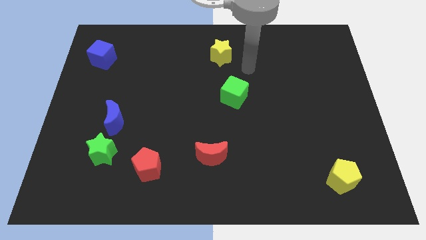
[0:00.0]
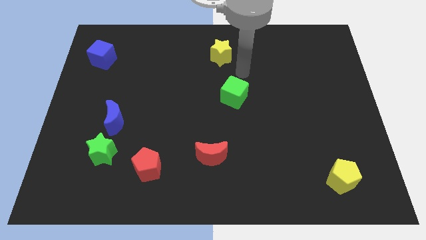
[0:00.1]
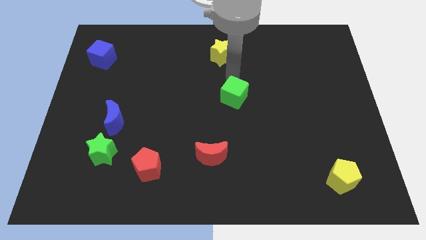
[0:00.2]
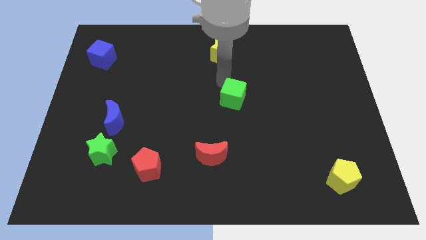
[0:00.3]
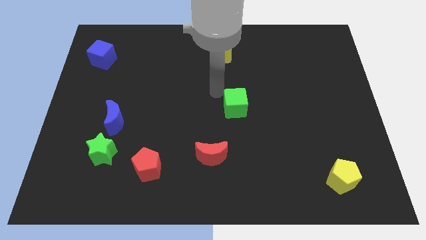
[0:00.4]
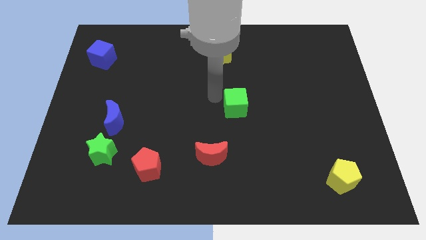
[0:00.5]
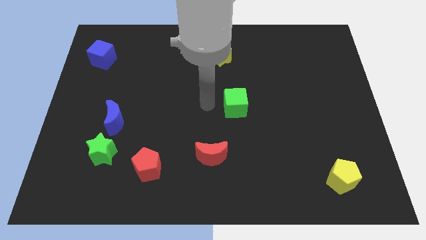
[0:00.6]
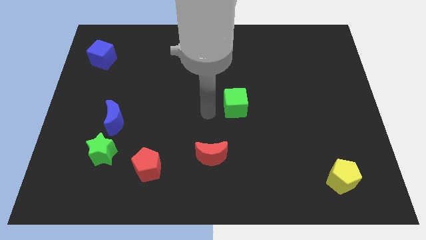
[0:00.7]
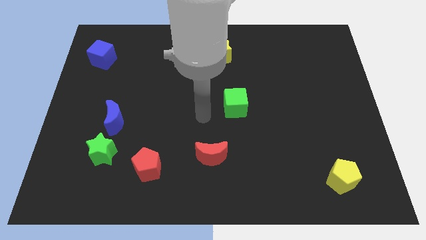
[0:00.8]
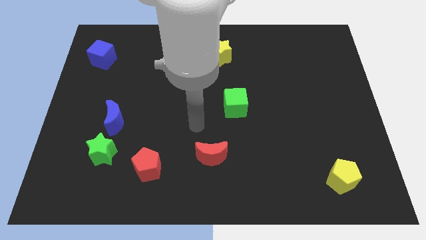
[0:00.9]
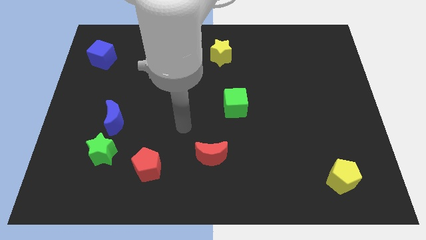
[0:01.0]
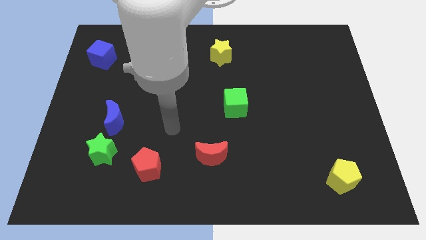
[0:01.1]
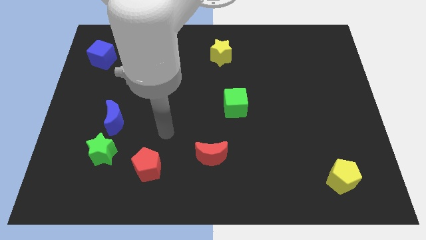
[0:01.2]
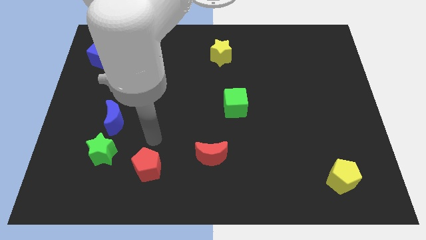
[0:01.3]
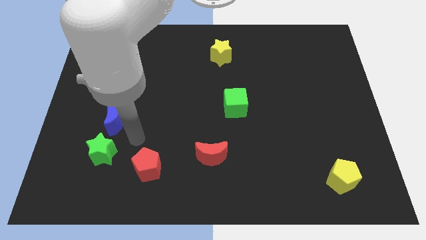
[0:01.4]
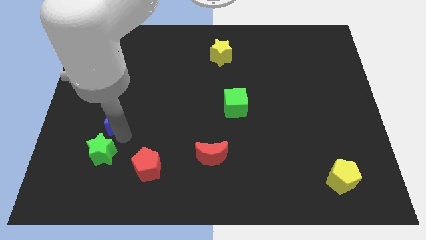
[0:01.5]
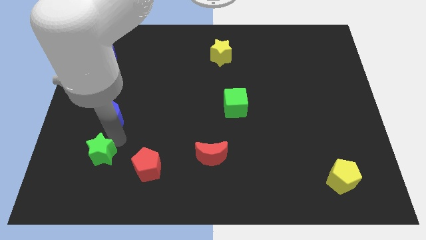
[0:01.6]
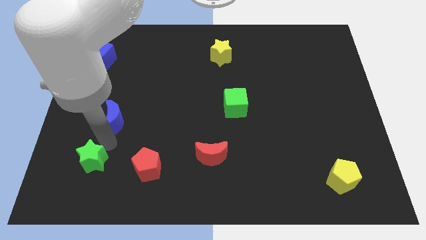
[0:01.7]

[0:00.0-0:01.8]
separate the blue moon from the green star

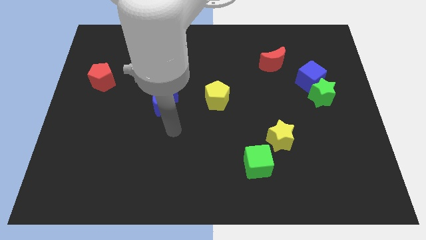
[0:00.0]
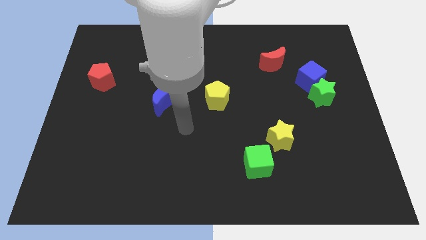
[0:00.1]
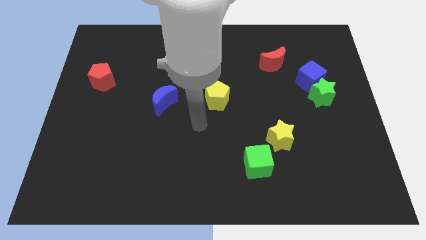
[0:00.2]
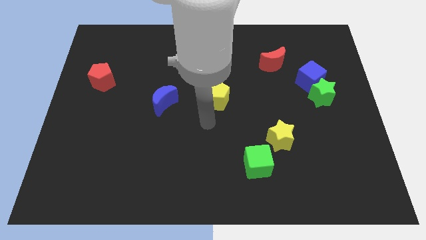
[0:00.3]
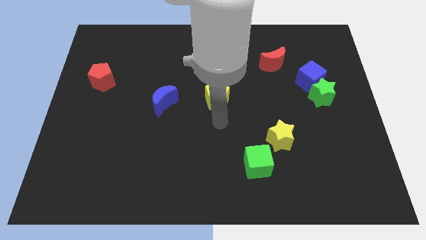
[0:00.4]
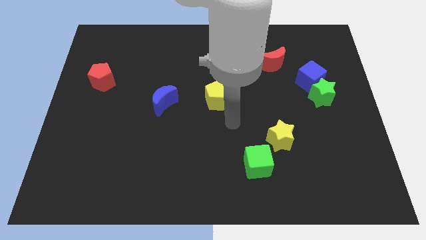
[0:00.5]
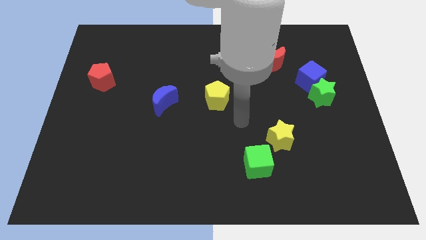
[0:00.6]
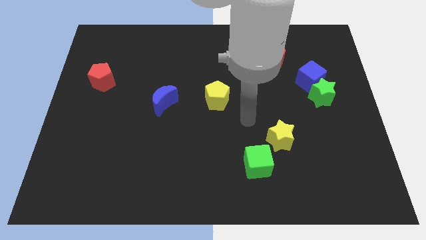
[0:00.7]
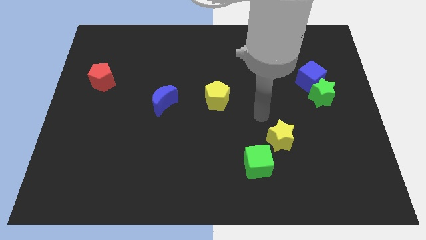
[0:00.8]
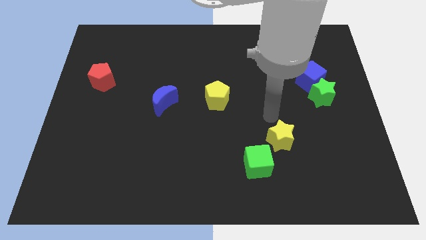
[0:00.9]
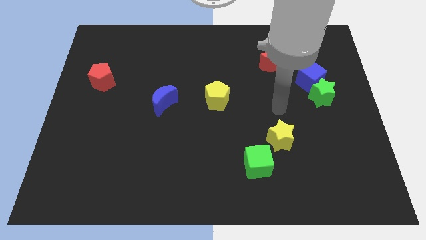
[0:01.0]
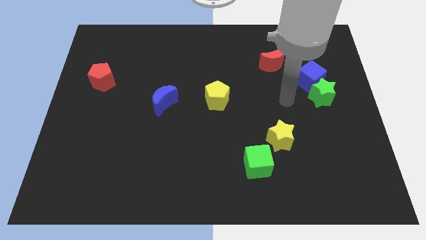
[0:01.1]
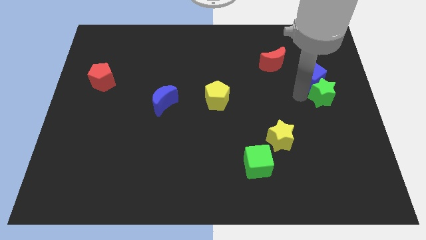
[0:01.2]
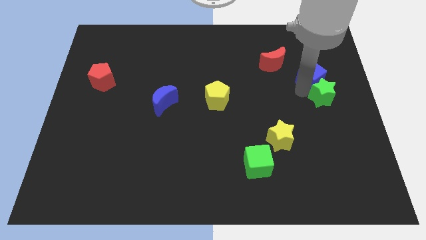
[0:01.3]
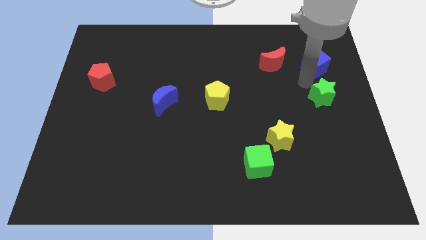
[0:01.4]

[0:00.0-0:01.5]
pull the green star apart from the blue cube

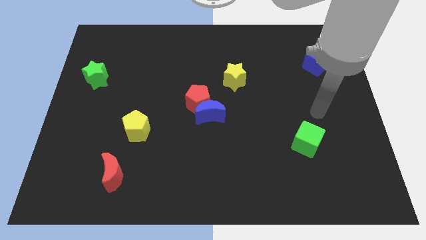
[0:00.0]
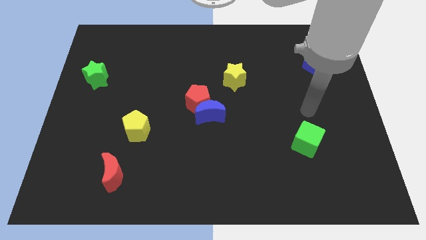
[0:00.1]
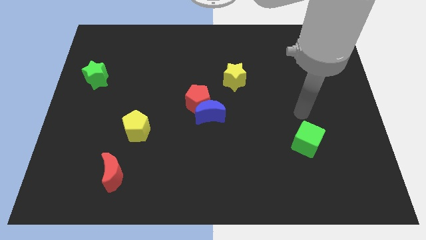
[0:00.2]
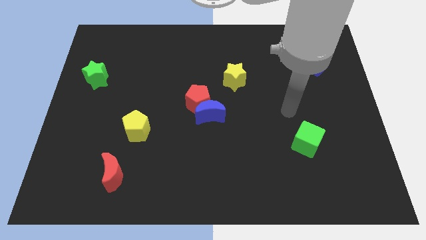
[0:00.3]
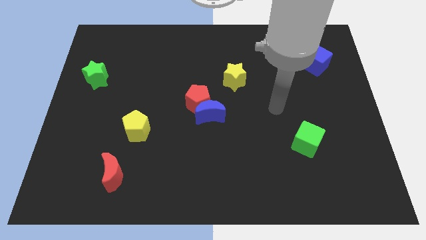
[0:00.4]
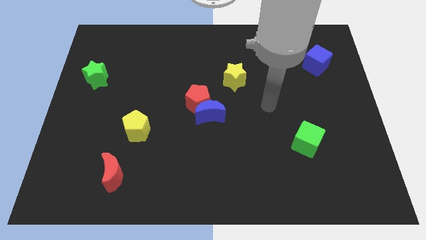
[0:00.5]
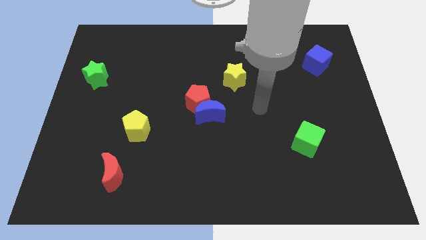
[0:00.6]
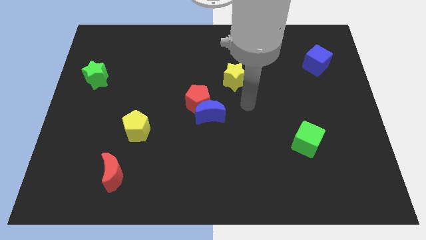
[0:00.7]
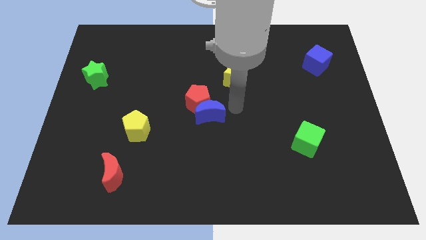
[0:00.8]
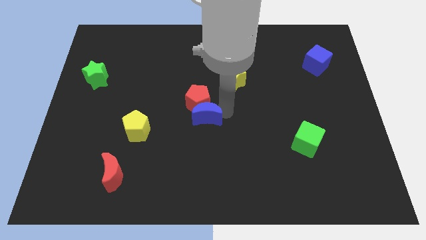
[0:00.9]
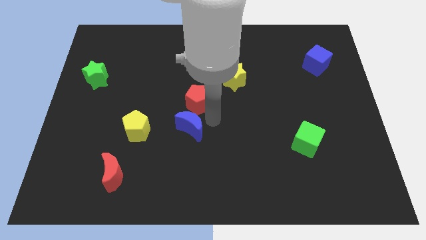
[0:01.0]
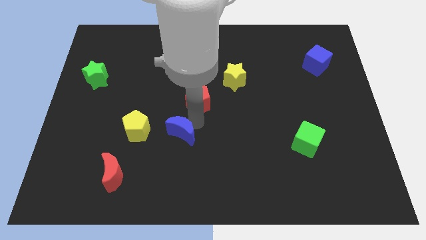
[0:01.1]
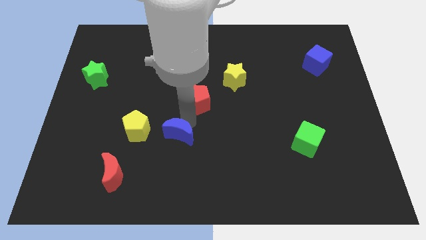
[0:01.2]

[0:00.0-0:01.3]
move the red pentagon away from the blue moon

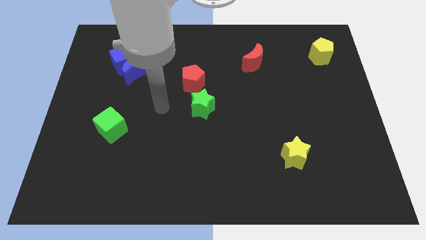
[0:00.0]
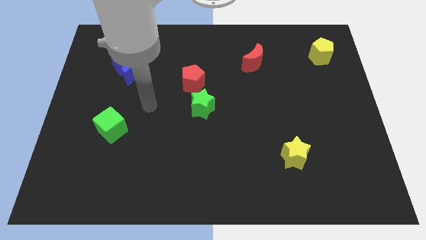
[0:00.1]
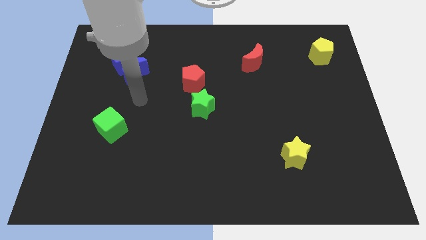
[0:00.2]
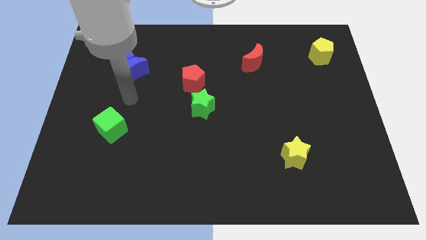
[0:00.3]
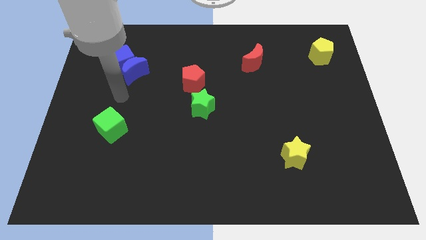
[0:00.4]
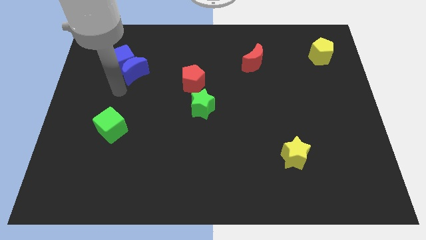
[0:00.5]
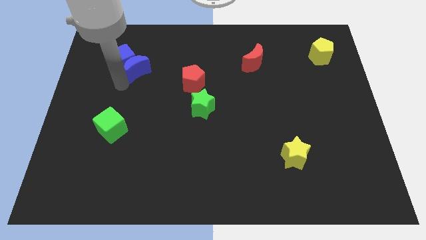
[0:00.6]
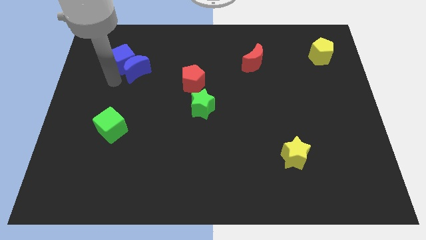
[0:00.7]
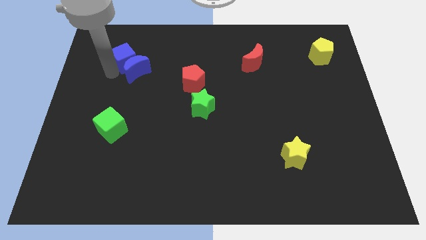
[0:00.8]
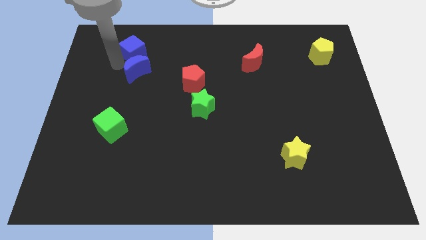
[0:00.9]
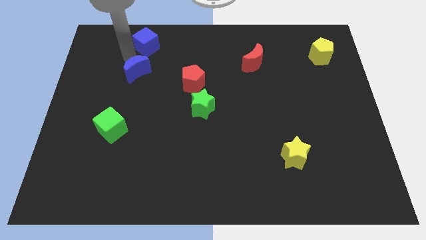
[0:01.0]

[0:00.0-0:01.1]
move the blue moon away from the blue cube

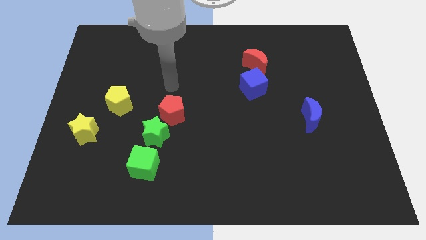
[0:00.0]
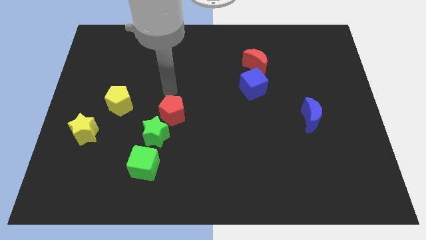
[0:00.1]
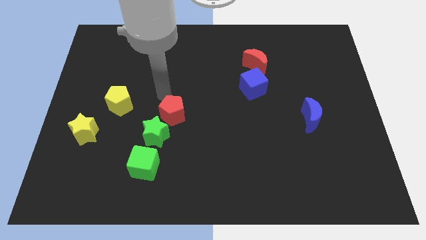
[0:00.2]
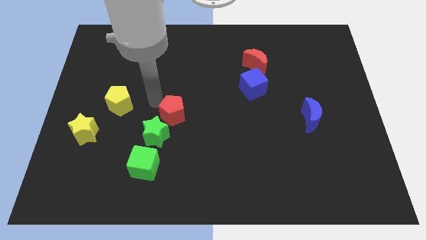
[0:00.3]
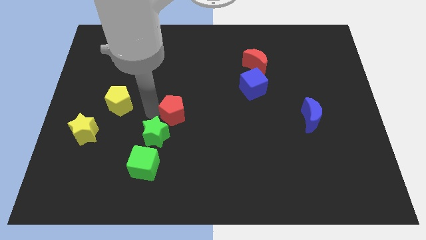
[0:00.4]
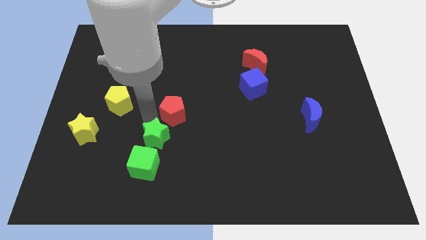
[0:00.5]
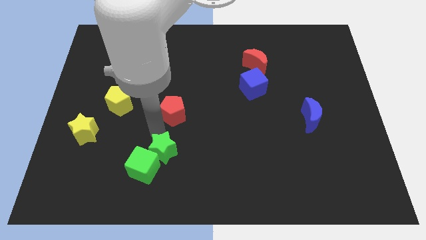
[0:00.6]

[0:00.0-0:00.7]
move the red pentagon away from the green star

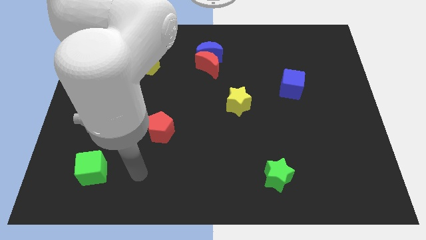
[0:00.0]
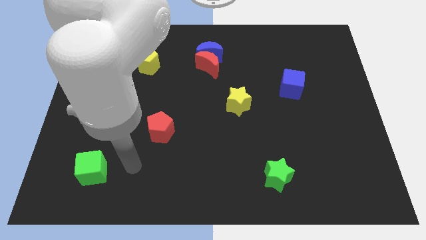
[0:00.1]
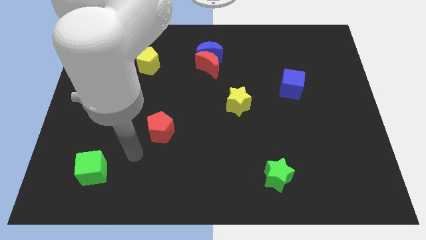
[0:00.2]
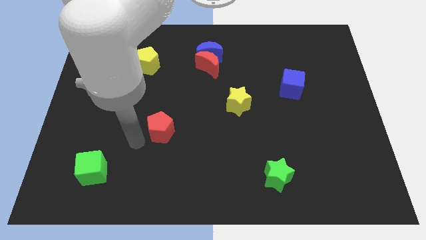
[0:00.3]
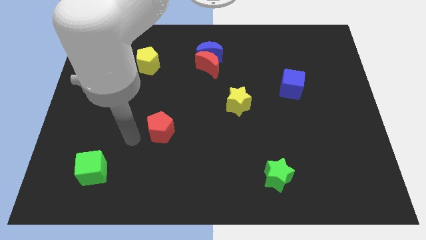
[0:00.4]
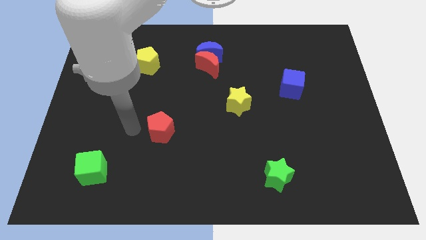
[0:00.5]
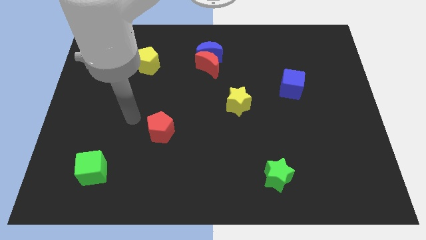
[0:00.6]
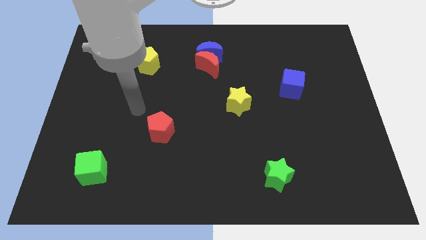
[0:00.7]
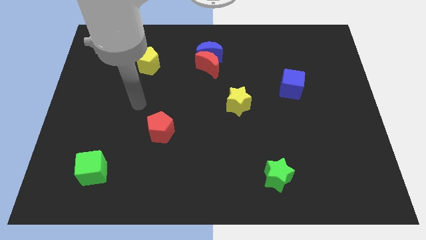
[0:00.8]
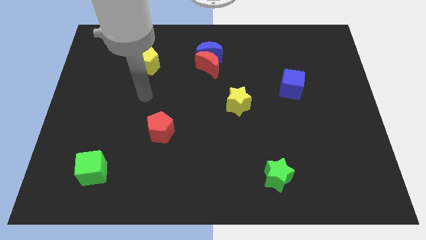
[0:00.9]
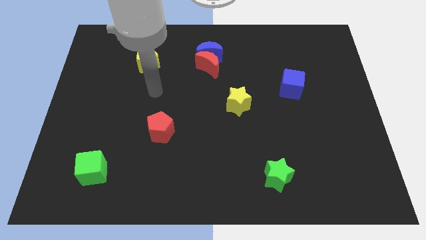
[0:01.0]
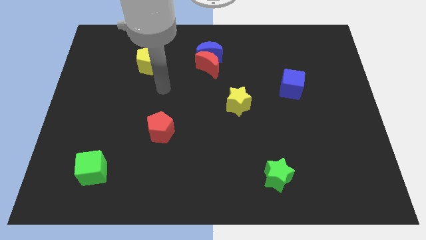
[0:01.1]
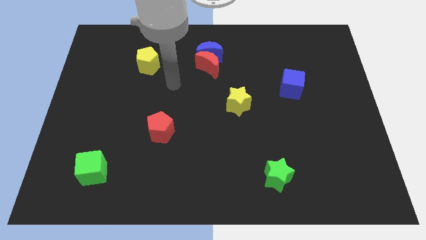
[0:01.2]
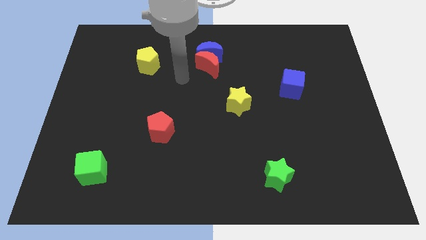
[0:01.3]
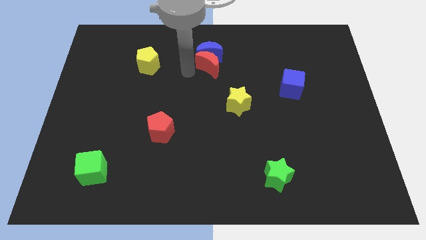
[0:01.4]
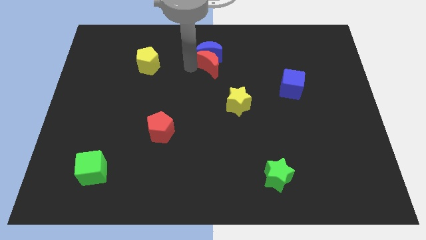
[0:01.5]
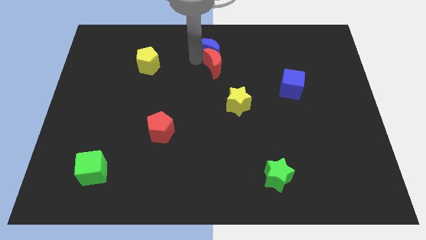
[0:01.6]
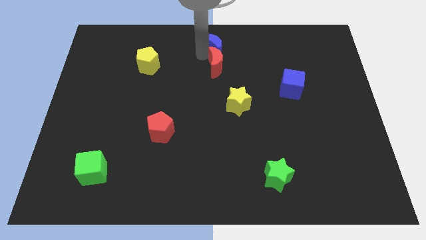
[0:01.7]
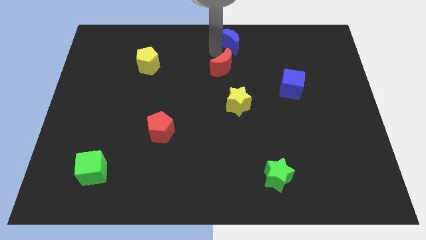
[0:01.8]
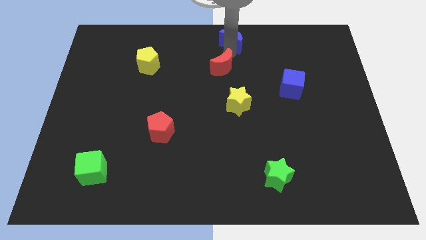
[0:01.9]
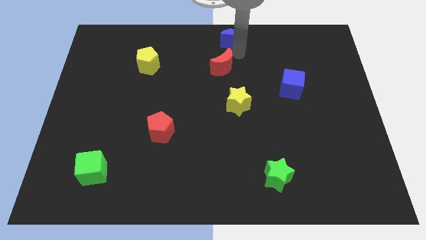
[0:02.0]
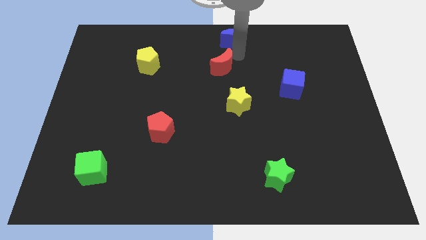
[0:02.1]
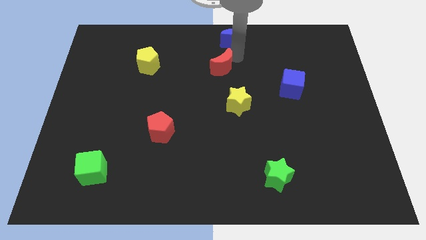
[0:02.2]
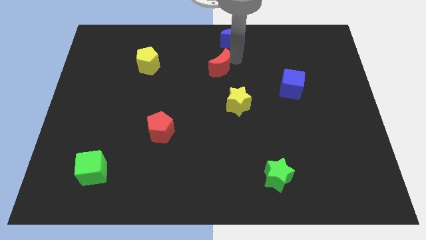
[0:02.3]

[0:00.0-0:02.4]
pull the red moon apart from the blue moon

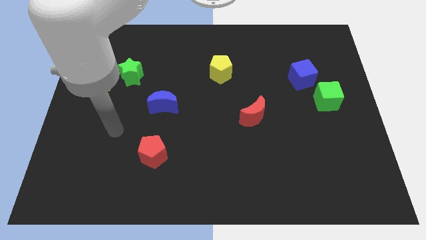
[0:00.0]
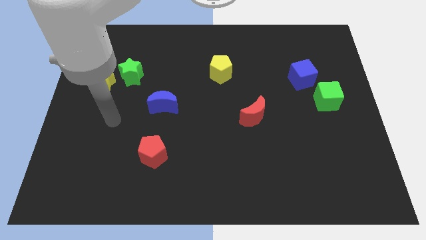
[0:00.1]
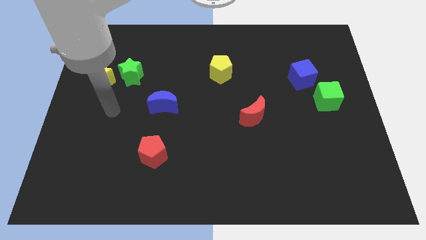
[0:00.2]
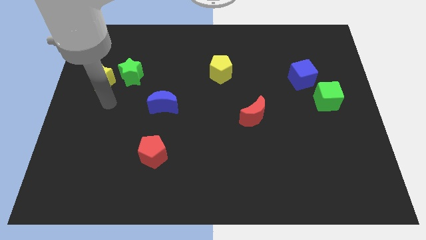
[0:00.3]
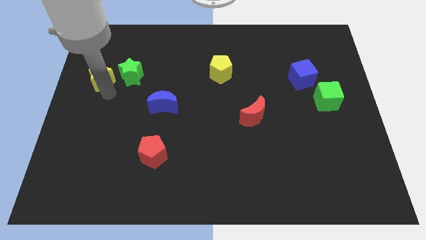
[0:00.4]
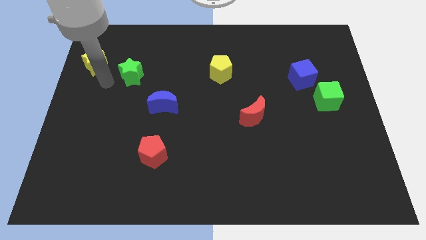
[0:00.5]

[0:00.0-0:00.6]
pull the green star apart from the yellow star
